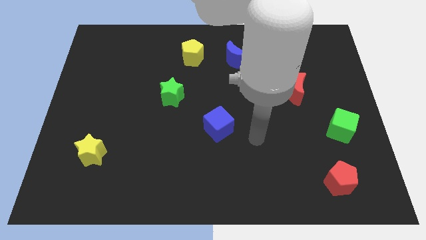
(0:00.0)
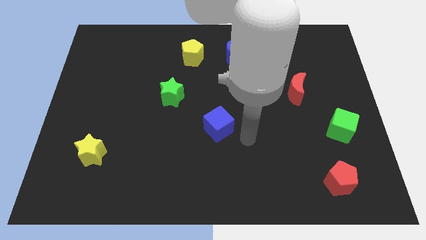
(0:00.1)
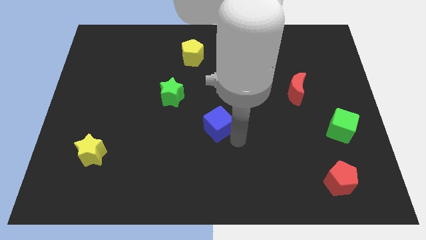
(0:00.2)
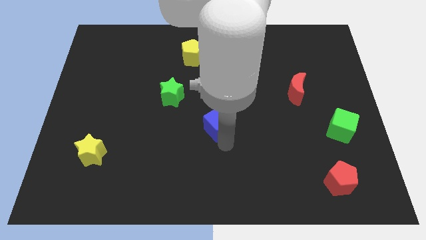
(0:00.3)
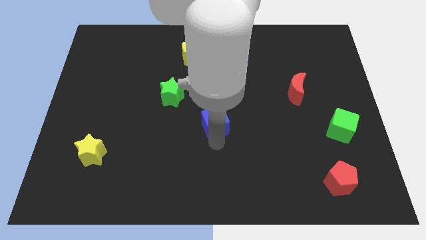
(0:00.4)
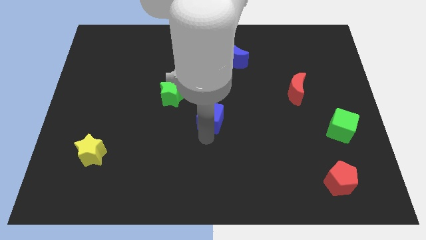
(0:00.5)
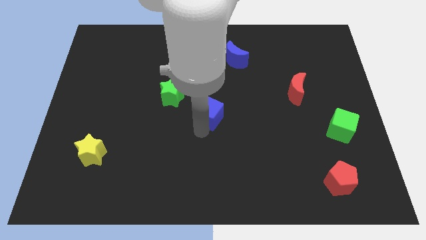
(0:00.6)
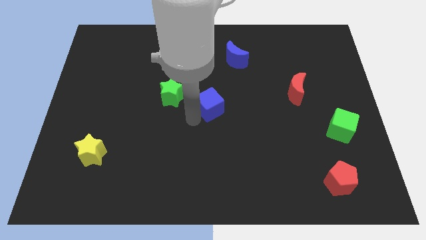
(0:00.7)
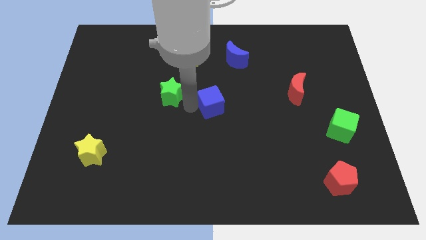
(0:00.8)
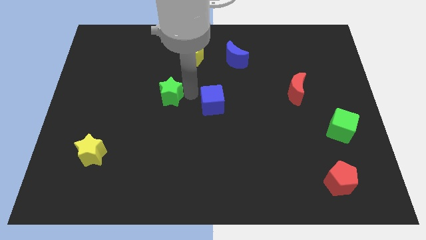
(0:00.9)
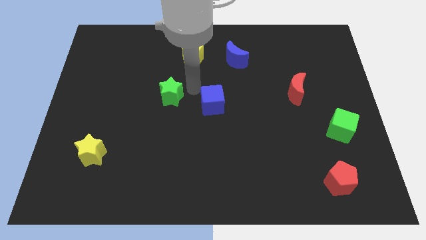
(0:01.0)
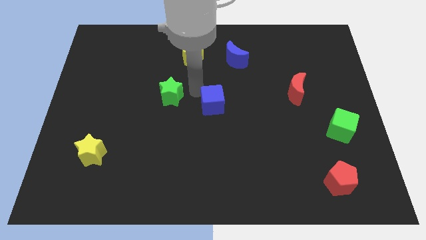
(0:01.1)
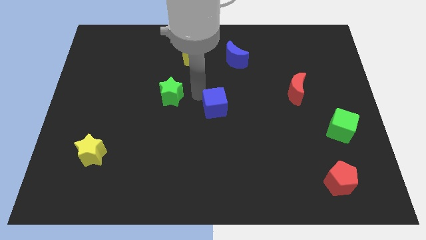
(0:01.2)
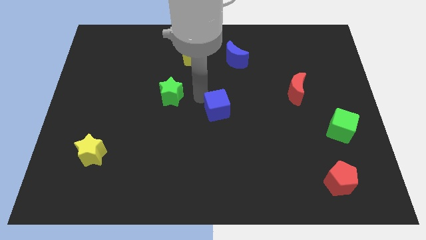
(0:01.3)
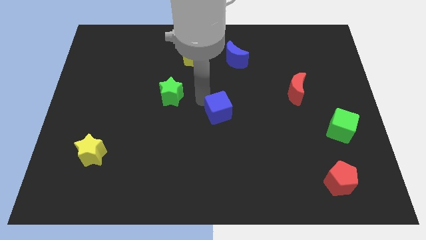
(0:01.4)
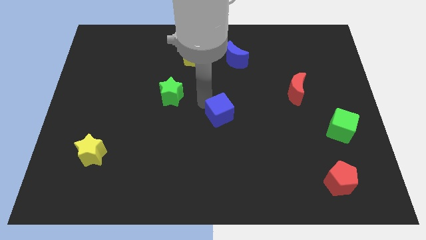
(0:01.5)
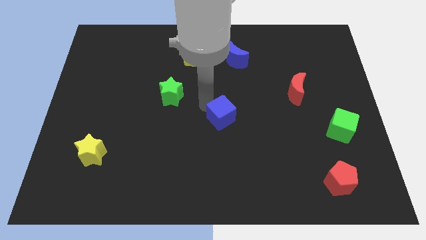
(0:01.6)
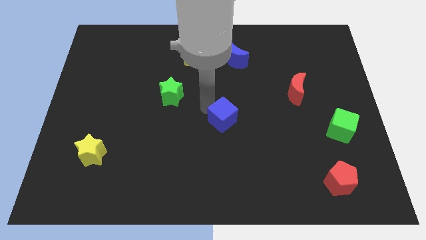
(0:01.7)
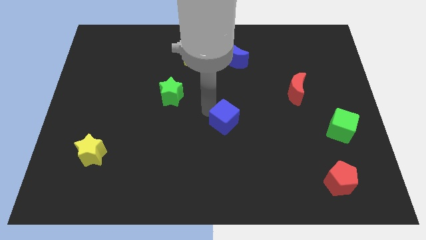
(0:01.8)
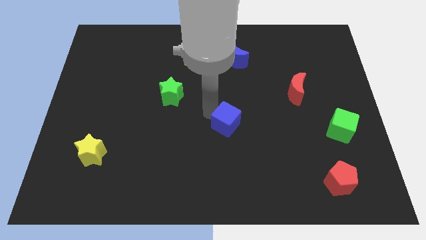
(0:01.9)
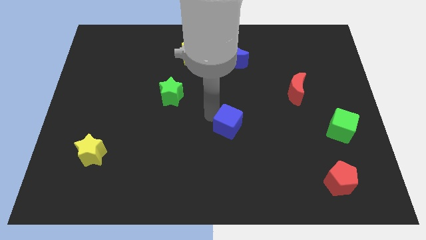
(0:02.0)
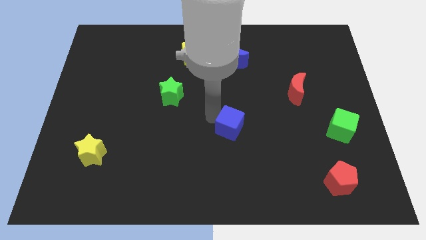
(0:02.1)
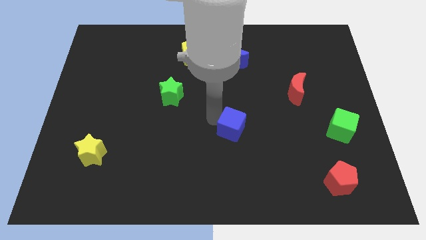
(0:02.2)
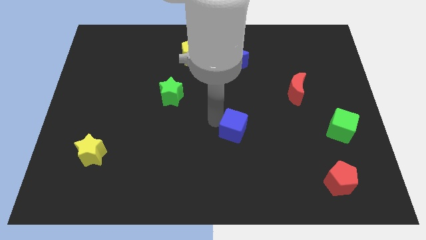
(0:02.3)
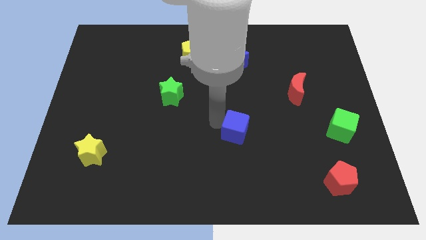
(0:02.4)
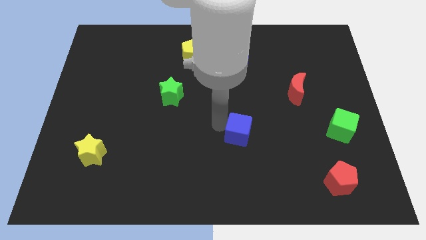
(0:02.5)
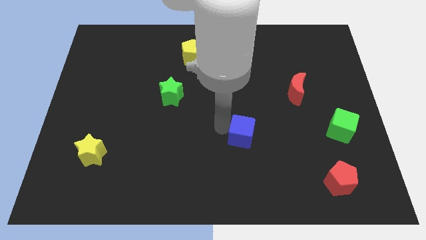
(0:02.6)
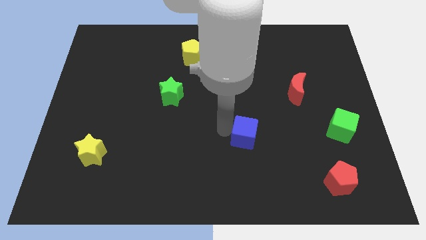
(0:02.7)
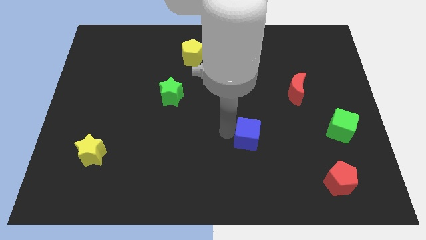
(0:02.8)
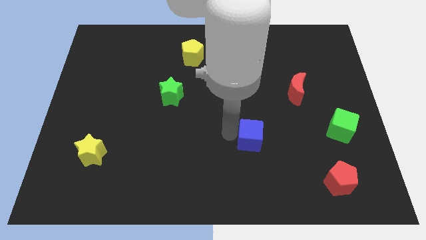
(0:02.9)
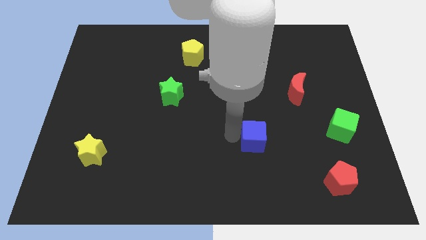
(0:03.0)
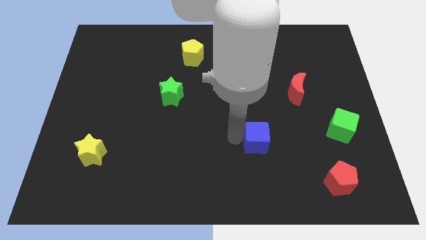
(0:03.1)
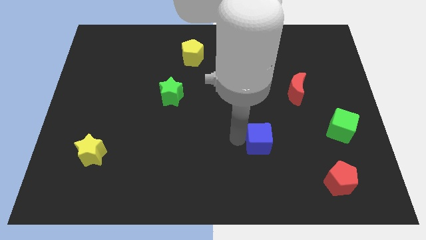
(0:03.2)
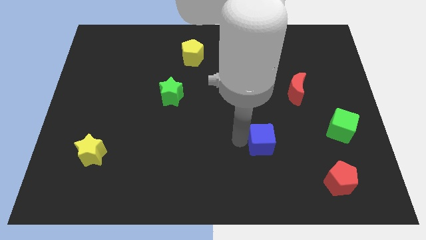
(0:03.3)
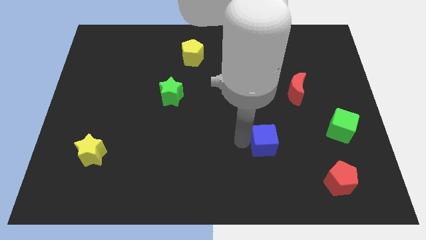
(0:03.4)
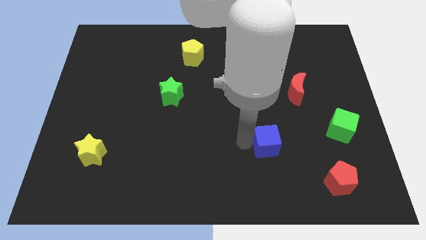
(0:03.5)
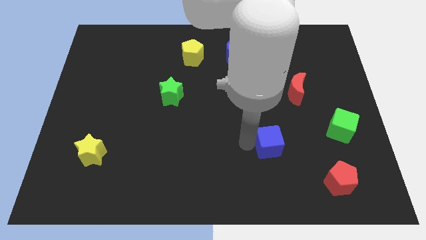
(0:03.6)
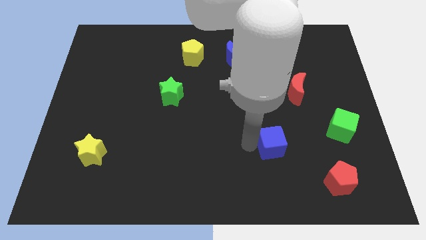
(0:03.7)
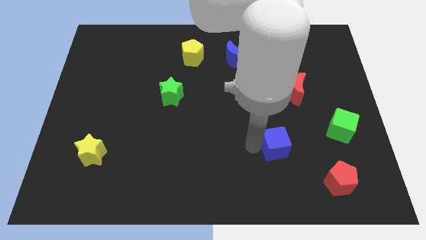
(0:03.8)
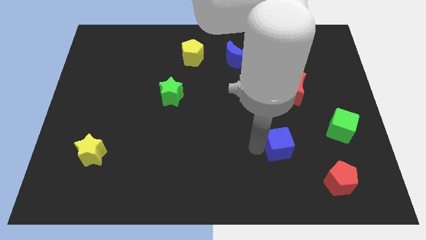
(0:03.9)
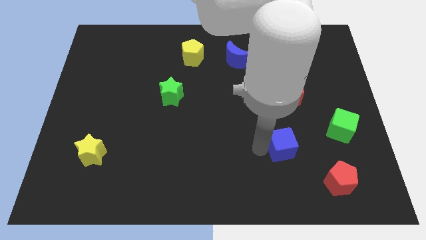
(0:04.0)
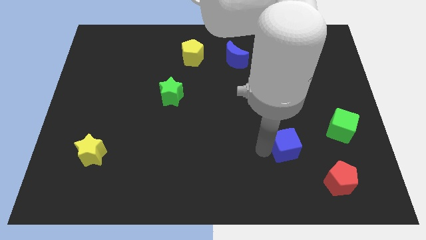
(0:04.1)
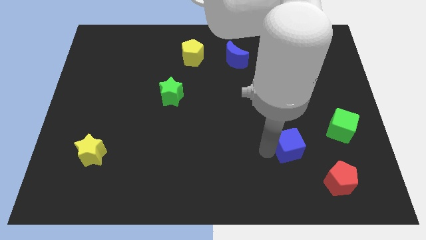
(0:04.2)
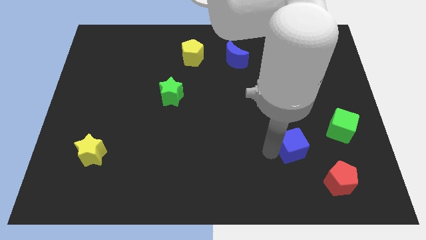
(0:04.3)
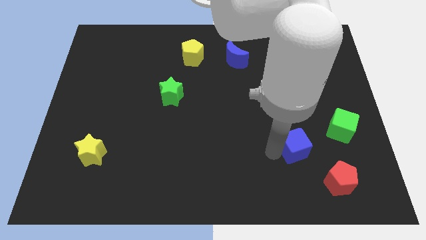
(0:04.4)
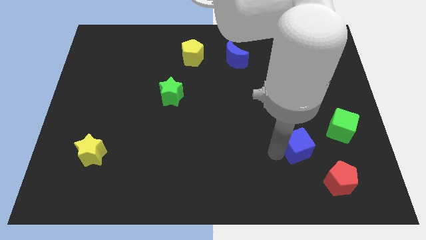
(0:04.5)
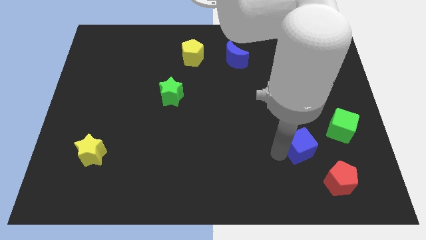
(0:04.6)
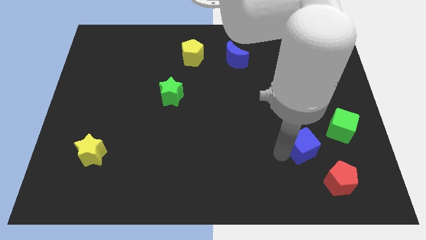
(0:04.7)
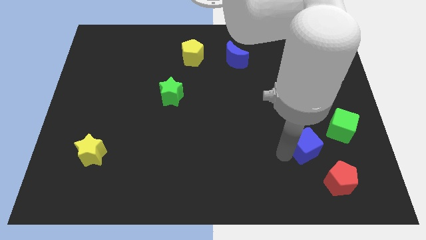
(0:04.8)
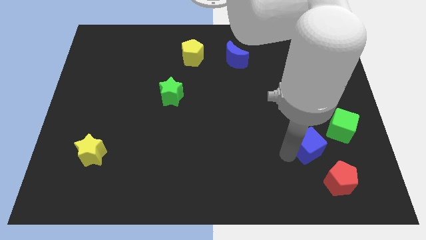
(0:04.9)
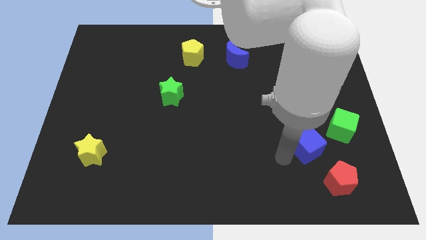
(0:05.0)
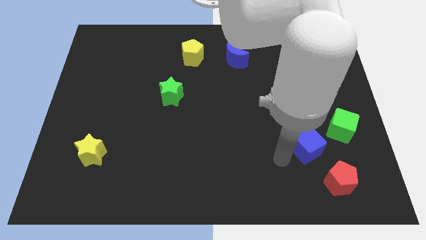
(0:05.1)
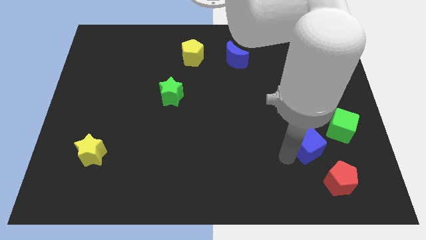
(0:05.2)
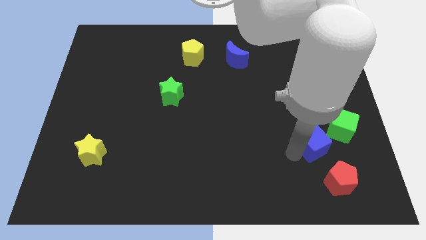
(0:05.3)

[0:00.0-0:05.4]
push the blue cube above the red pentagon

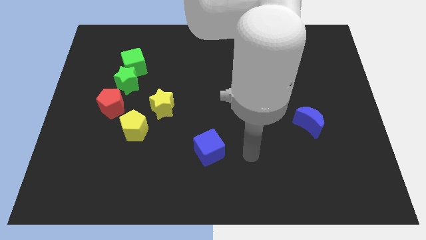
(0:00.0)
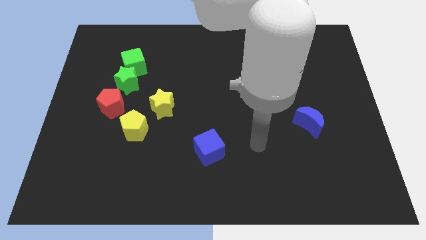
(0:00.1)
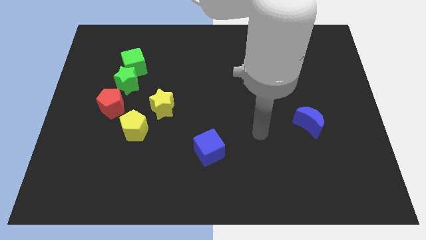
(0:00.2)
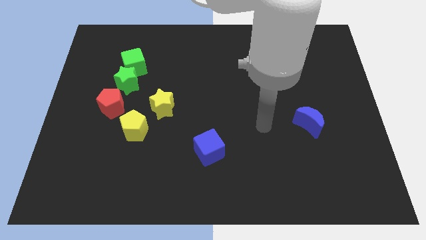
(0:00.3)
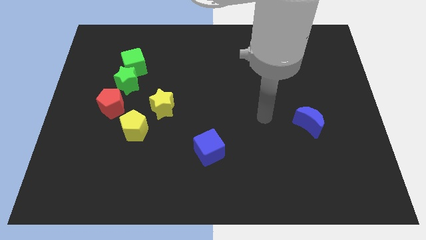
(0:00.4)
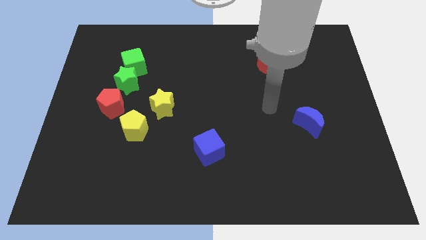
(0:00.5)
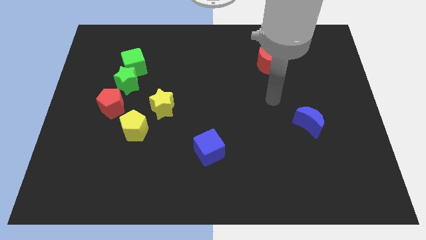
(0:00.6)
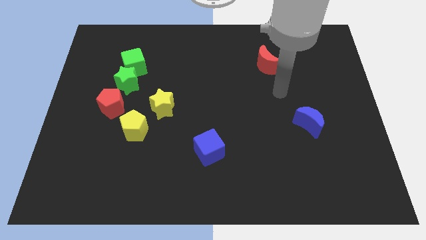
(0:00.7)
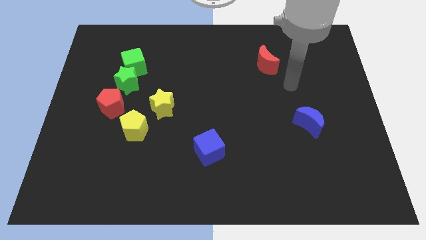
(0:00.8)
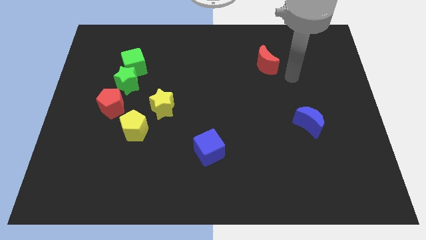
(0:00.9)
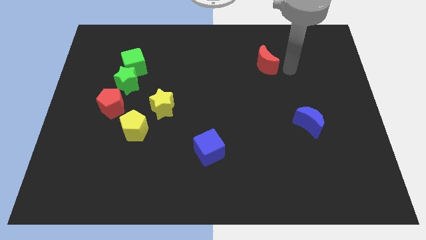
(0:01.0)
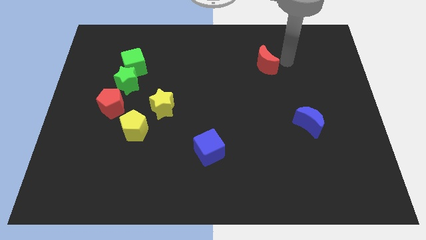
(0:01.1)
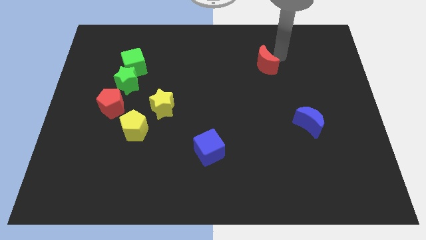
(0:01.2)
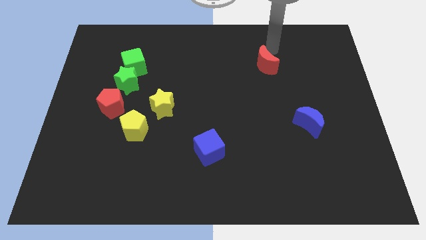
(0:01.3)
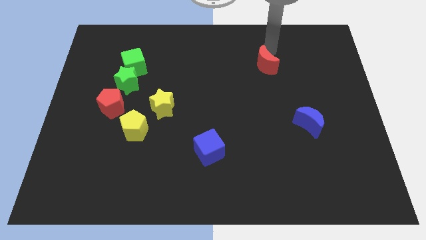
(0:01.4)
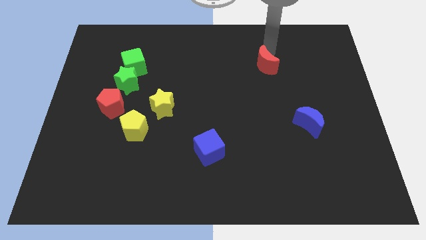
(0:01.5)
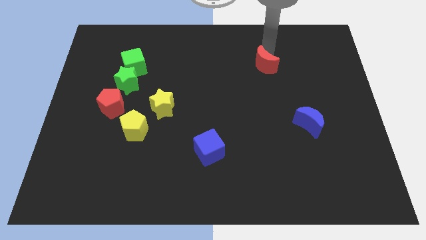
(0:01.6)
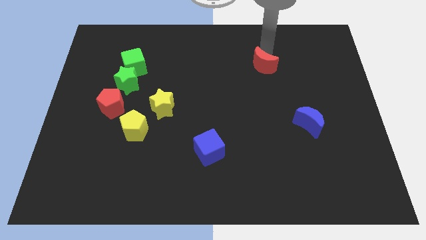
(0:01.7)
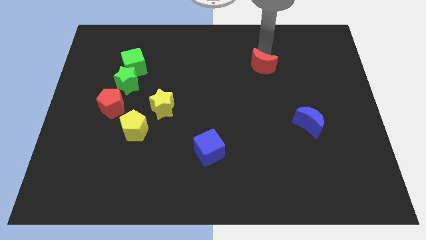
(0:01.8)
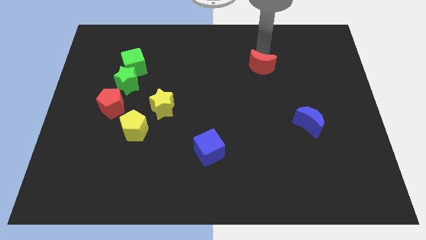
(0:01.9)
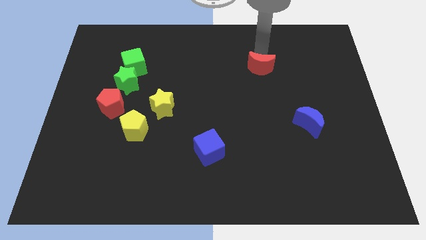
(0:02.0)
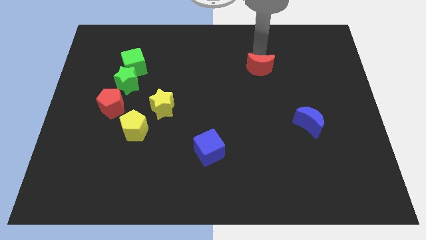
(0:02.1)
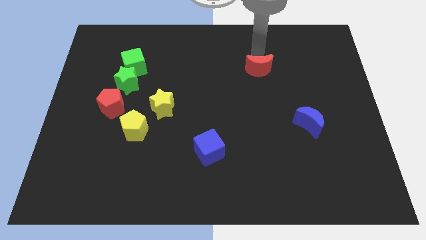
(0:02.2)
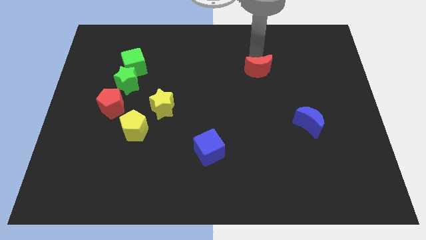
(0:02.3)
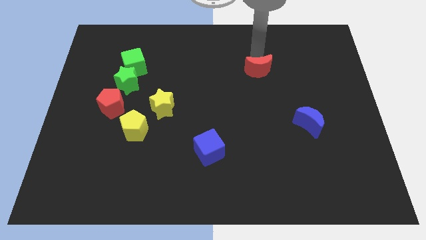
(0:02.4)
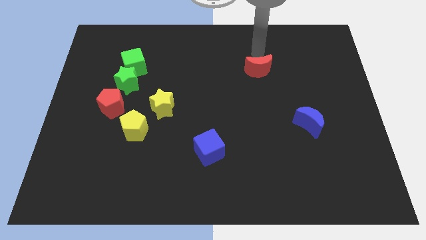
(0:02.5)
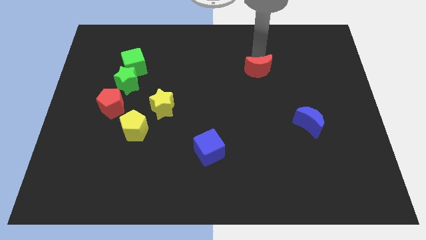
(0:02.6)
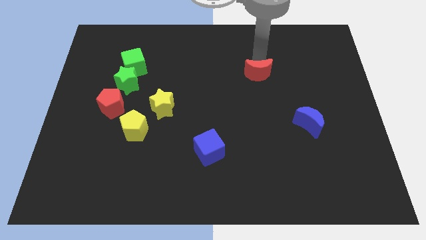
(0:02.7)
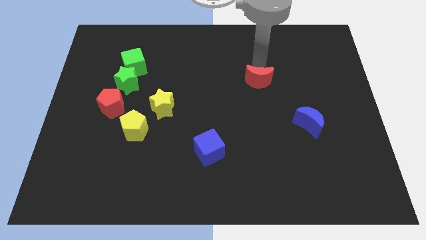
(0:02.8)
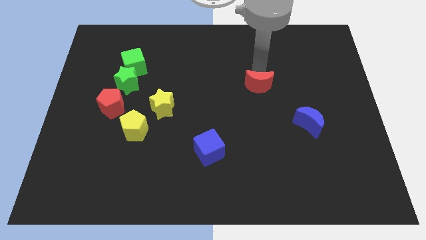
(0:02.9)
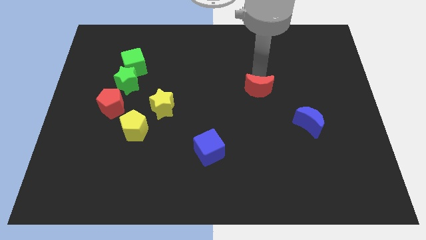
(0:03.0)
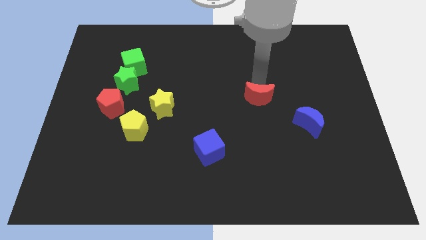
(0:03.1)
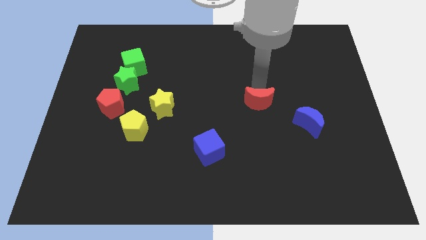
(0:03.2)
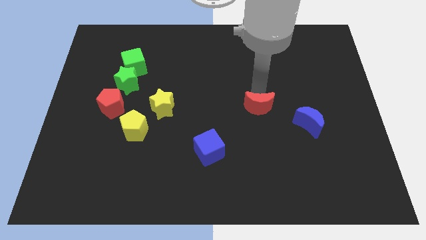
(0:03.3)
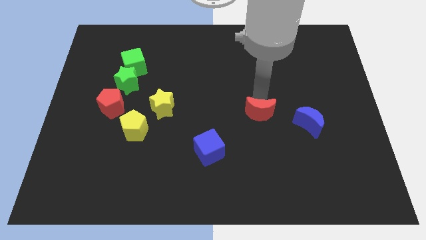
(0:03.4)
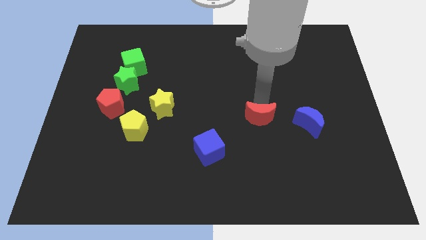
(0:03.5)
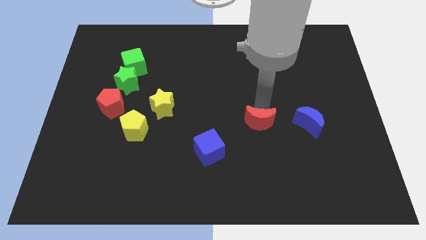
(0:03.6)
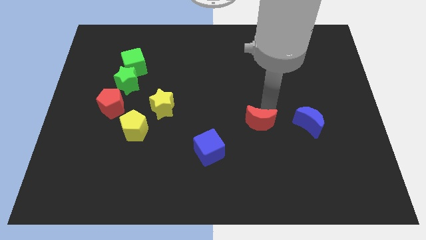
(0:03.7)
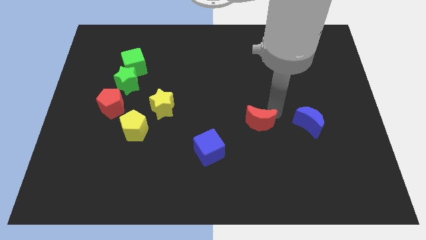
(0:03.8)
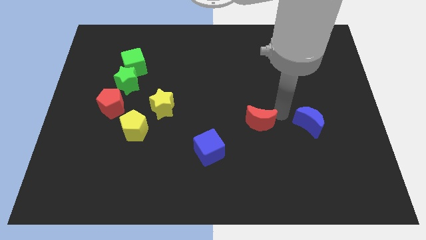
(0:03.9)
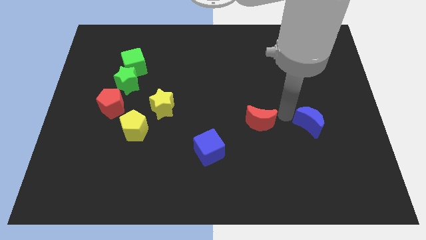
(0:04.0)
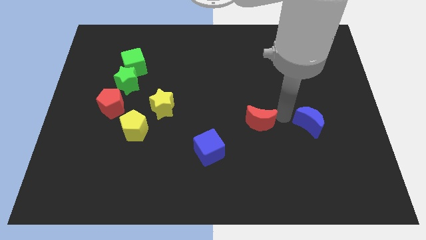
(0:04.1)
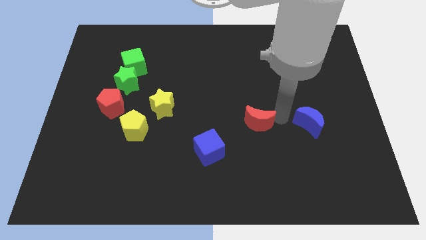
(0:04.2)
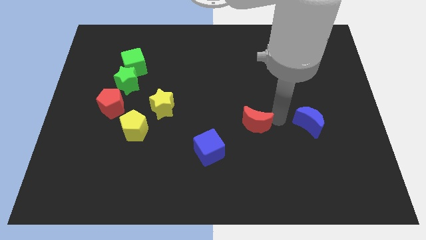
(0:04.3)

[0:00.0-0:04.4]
slide the red moon to the top right of the blue cube
